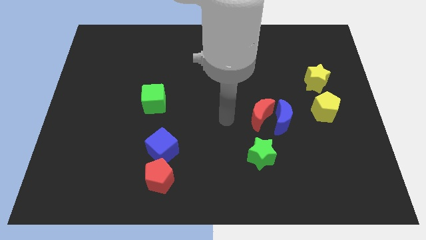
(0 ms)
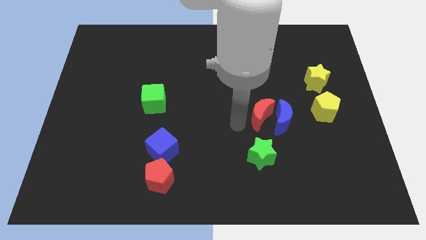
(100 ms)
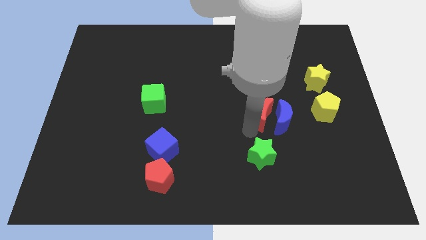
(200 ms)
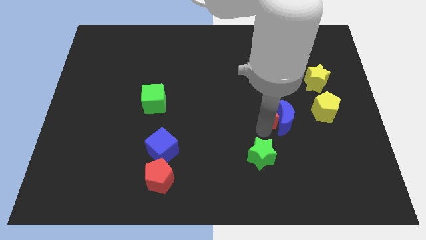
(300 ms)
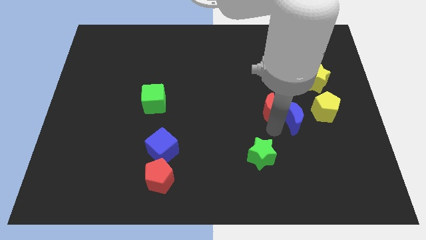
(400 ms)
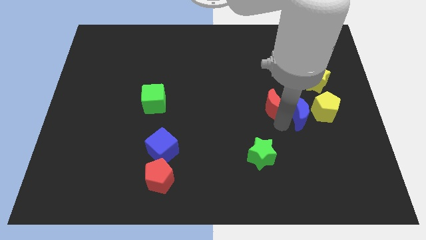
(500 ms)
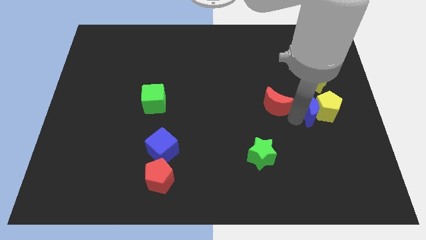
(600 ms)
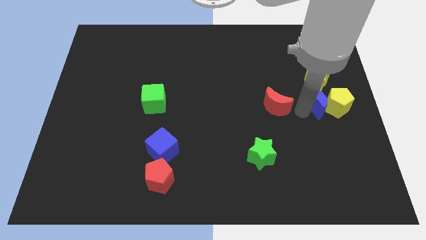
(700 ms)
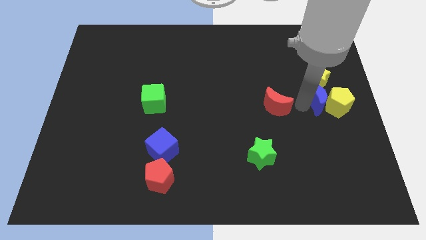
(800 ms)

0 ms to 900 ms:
separate the red moon from the blue moon

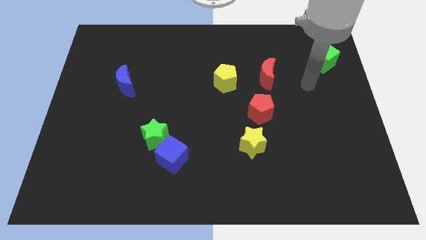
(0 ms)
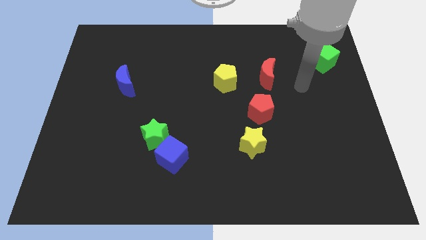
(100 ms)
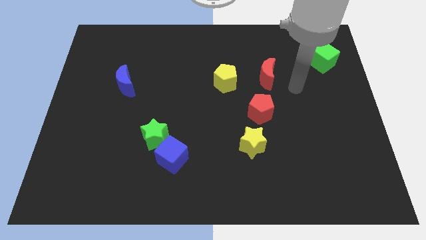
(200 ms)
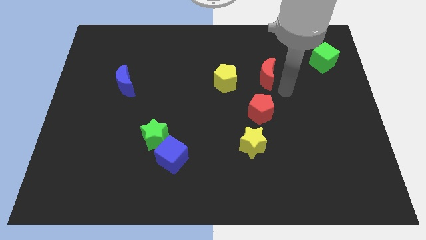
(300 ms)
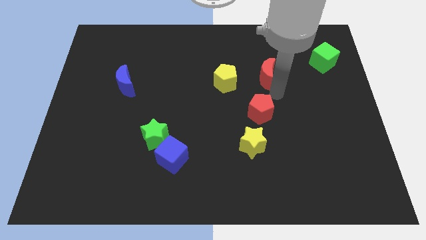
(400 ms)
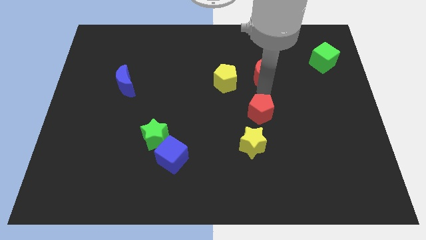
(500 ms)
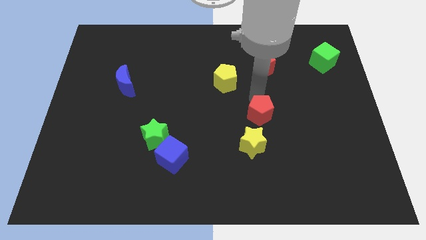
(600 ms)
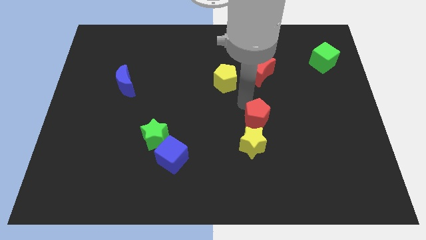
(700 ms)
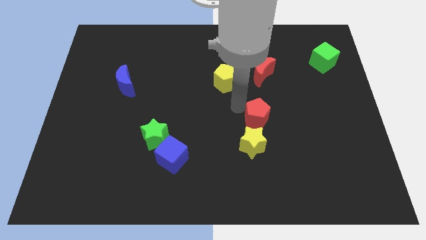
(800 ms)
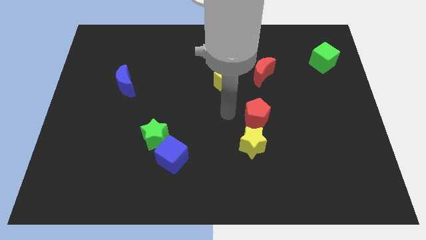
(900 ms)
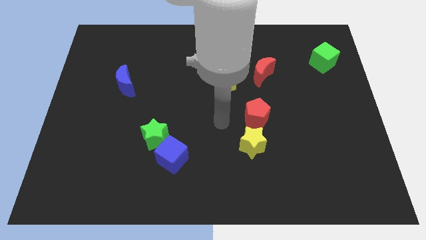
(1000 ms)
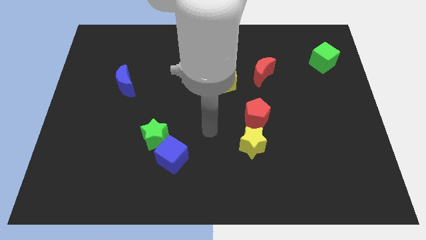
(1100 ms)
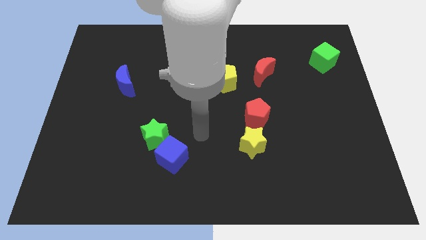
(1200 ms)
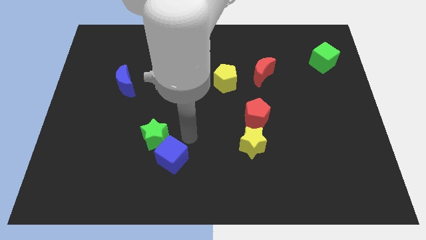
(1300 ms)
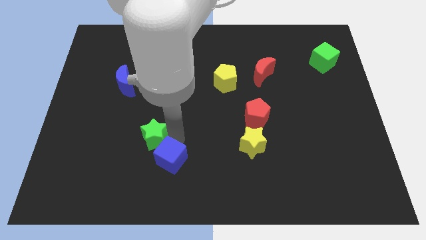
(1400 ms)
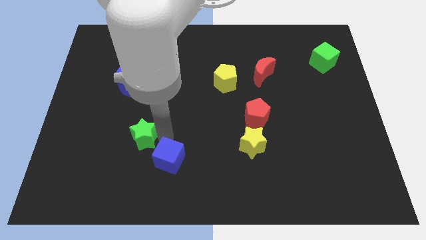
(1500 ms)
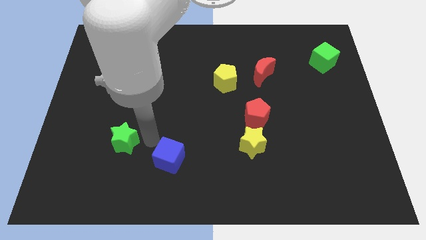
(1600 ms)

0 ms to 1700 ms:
pull the blue cube apart from the green star

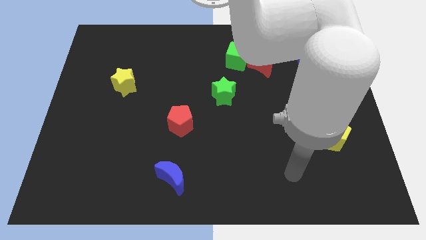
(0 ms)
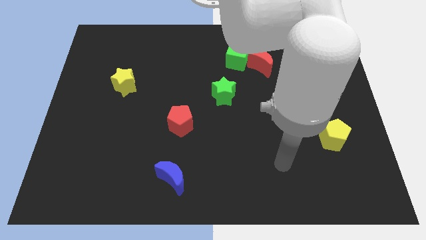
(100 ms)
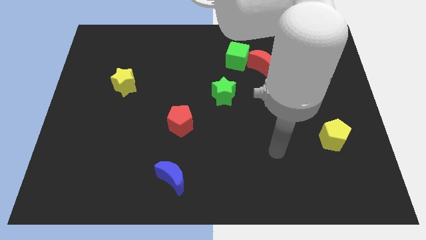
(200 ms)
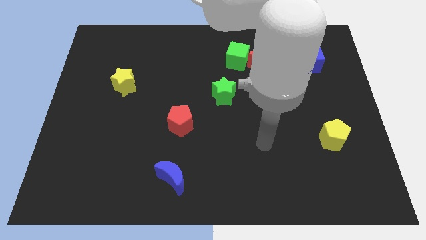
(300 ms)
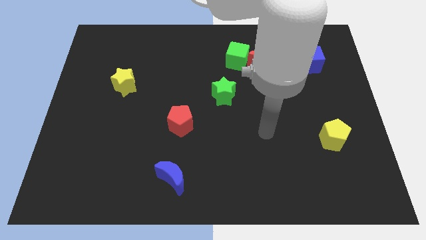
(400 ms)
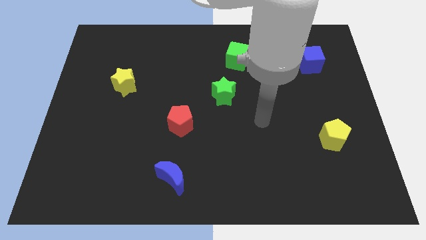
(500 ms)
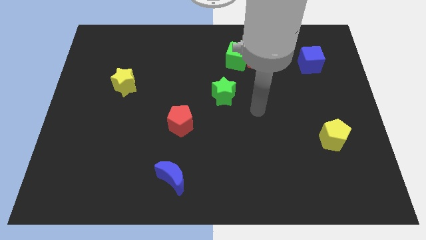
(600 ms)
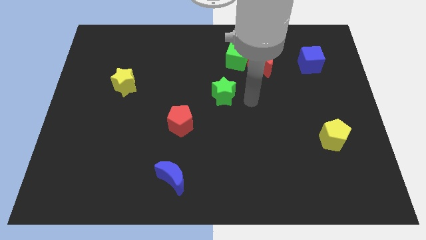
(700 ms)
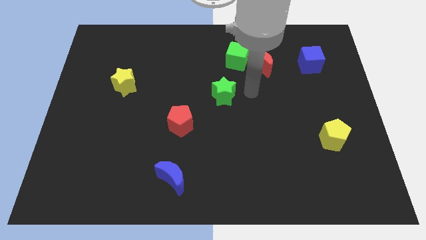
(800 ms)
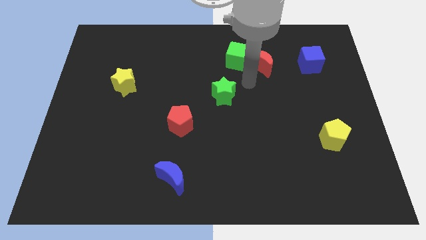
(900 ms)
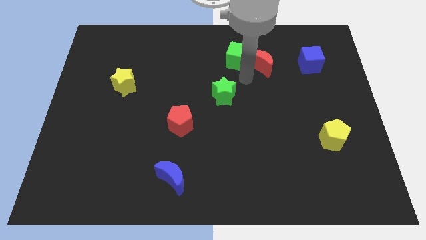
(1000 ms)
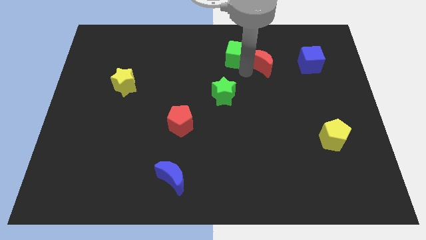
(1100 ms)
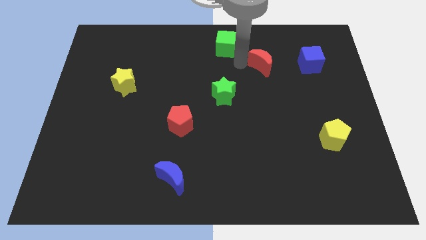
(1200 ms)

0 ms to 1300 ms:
separate the red moon from the green cube

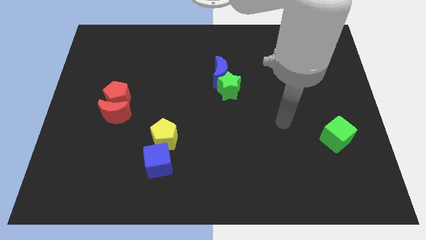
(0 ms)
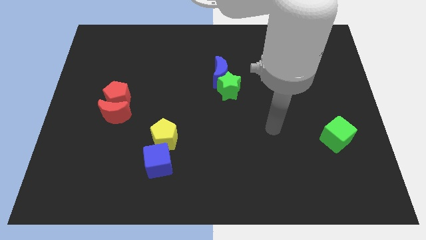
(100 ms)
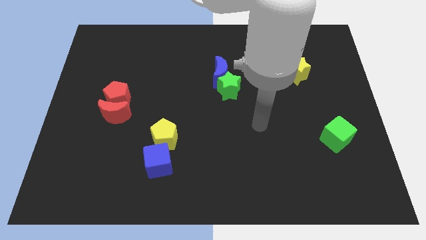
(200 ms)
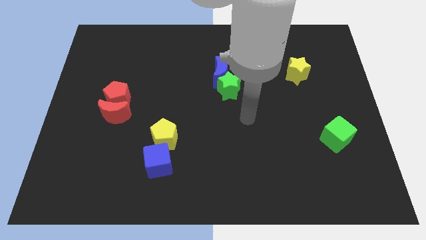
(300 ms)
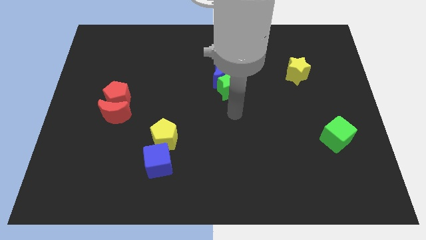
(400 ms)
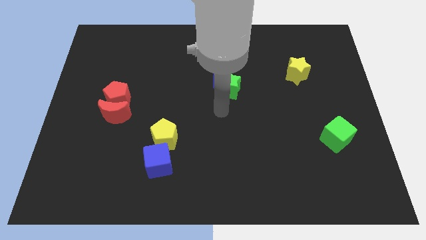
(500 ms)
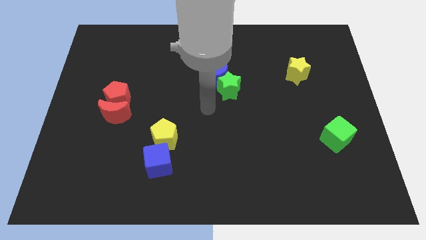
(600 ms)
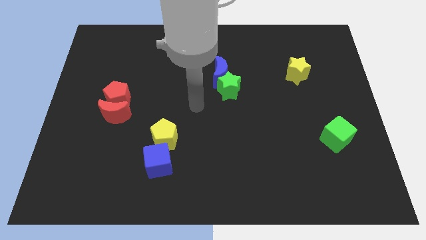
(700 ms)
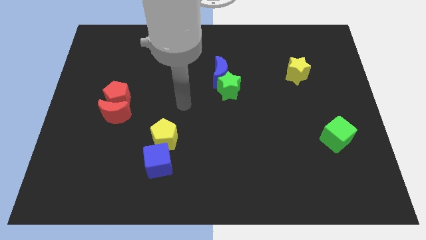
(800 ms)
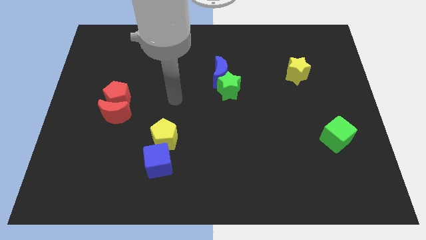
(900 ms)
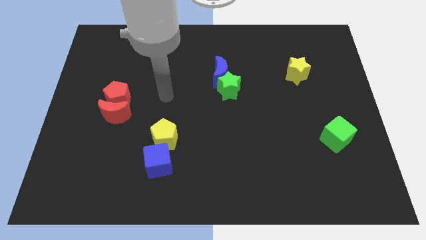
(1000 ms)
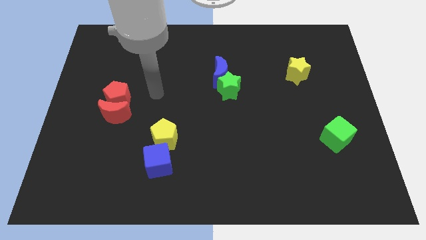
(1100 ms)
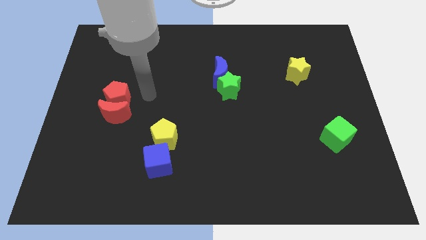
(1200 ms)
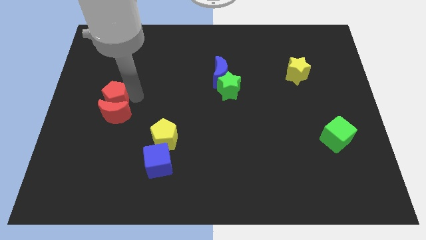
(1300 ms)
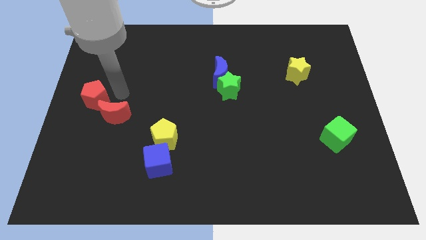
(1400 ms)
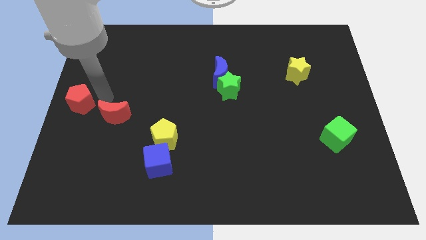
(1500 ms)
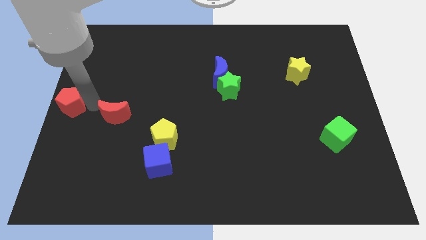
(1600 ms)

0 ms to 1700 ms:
move the red moon away from the red pentagon

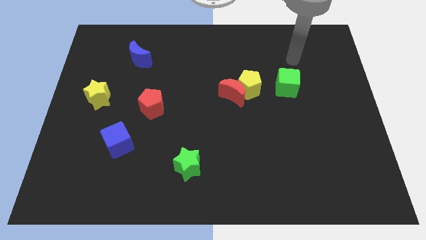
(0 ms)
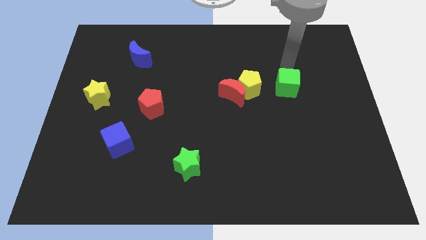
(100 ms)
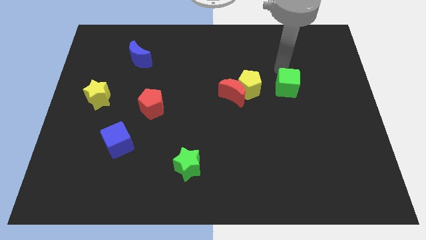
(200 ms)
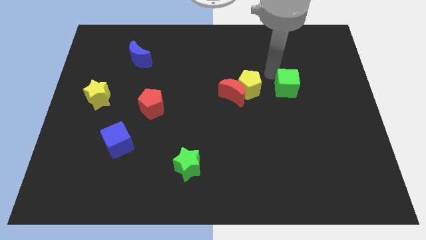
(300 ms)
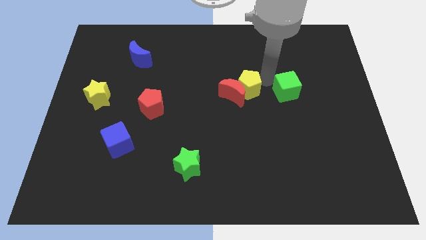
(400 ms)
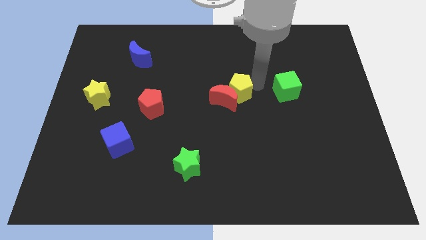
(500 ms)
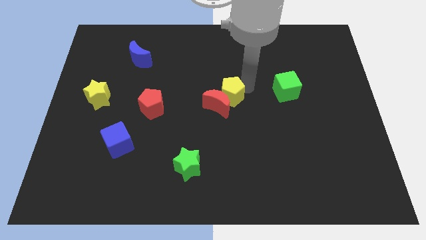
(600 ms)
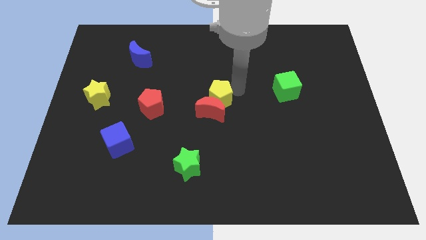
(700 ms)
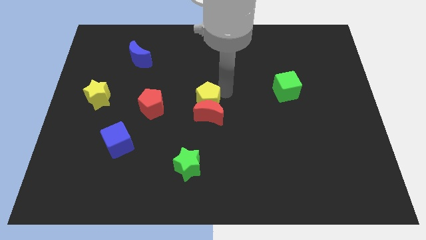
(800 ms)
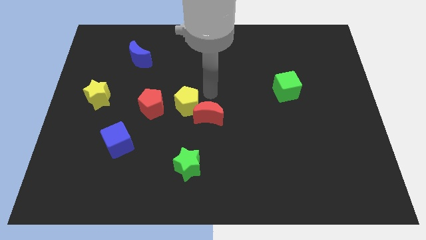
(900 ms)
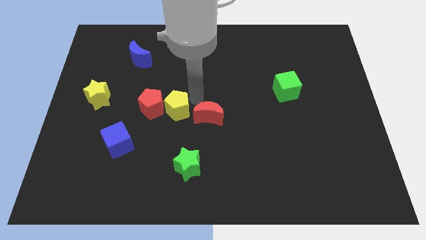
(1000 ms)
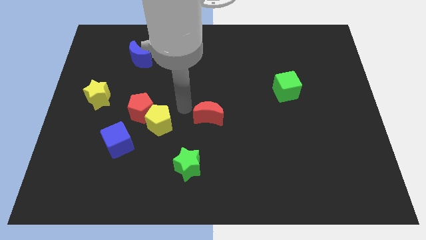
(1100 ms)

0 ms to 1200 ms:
separate the red moon from the yellow pentagon

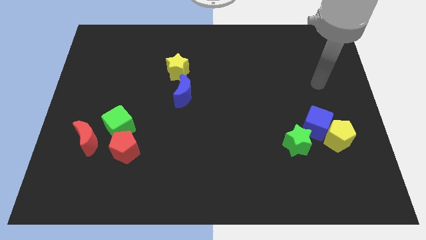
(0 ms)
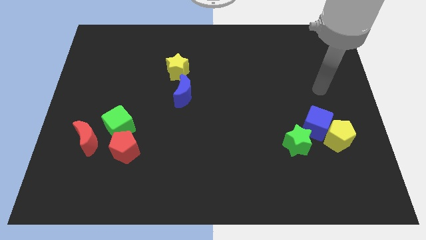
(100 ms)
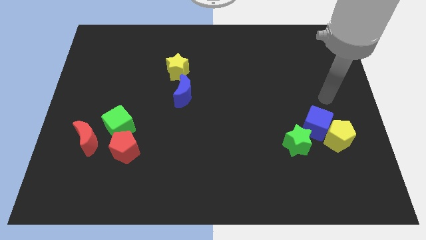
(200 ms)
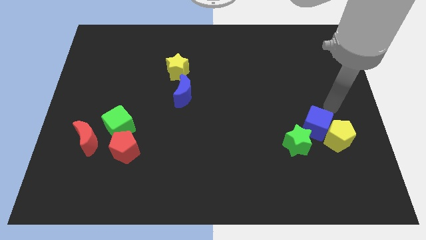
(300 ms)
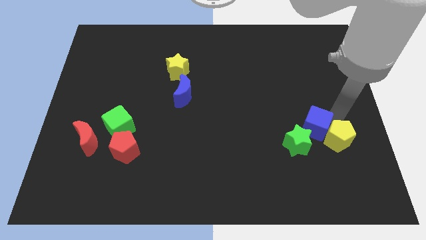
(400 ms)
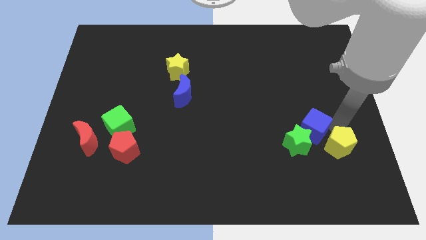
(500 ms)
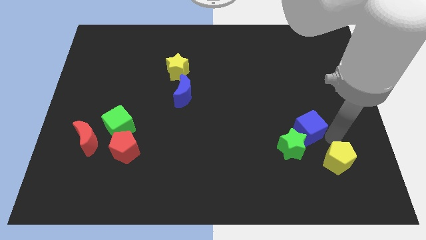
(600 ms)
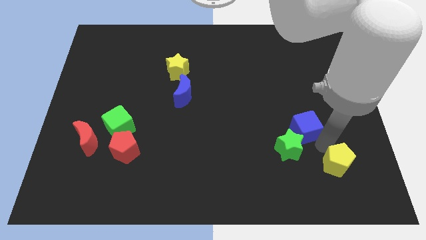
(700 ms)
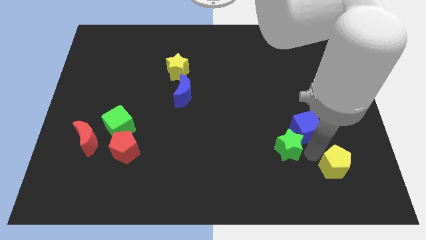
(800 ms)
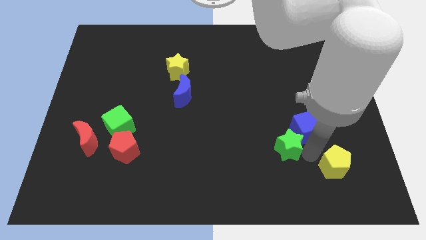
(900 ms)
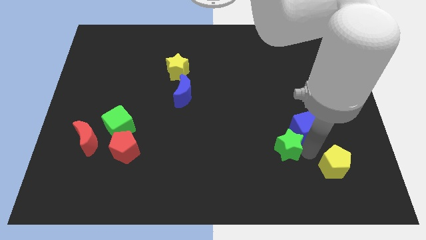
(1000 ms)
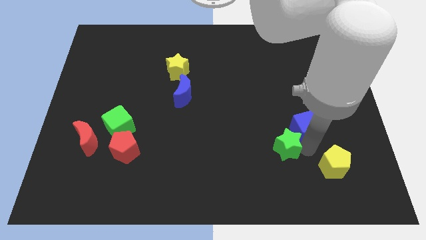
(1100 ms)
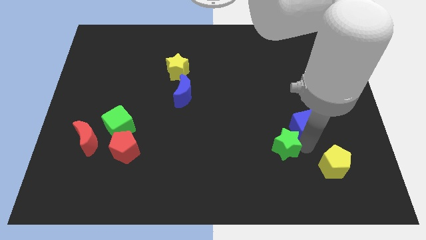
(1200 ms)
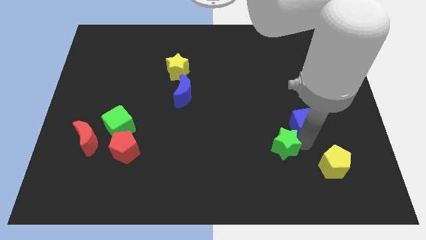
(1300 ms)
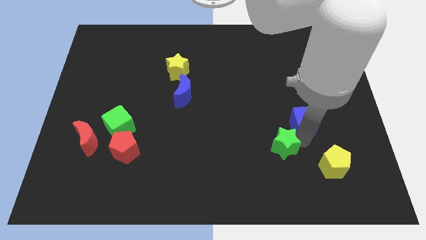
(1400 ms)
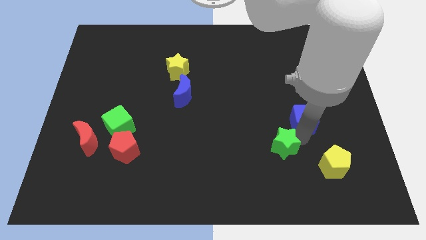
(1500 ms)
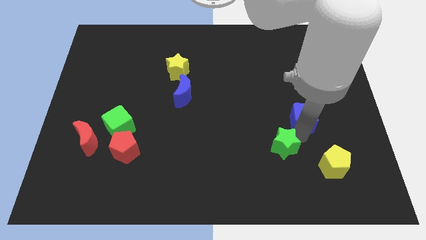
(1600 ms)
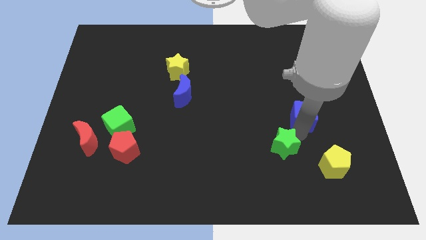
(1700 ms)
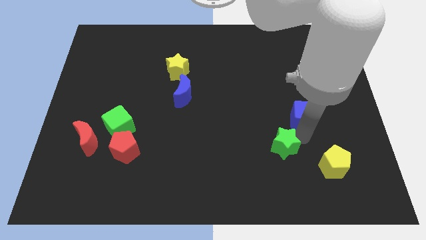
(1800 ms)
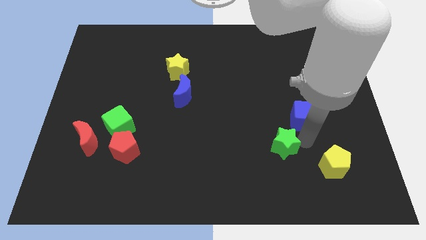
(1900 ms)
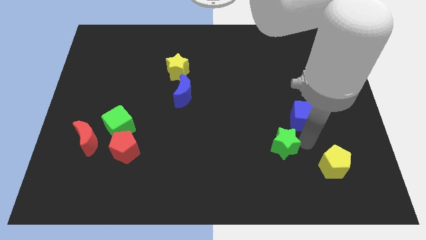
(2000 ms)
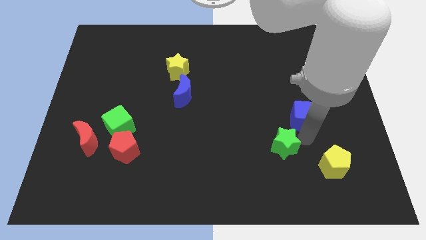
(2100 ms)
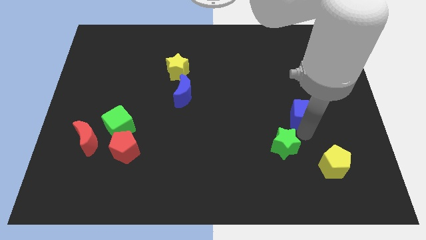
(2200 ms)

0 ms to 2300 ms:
move the blue cube away from the yellow pentagon and green star

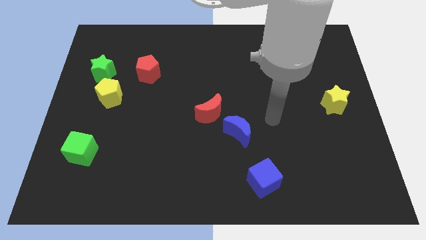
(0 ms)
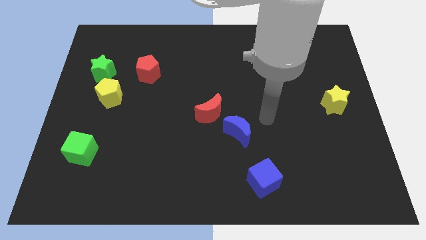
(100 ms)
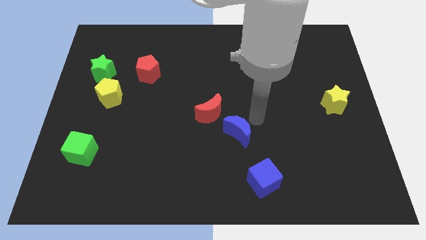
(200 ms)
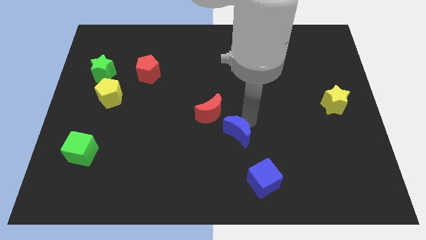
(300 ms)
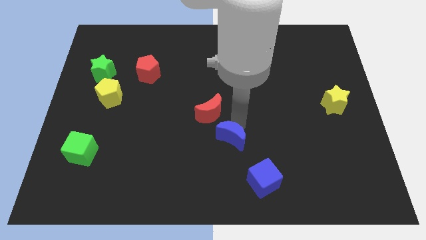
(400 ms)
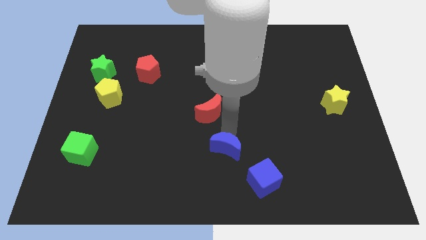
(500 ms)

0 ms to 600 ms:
move the red moon away from the blue moon
